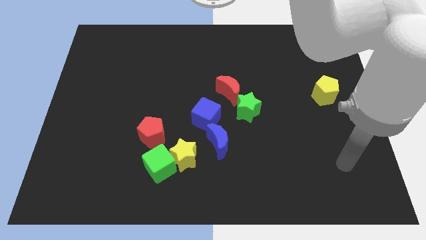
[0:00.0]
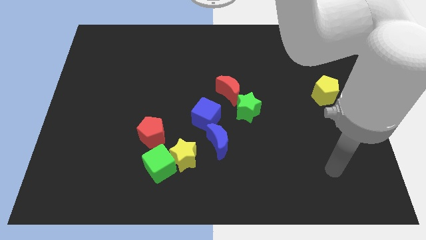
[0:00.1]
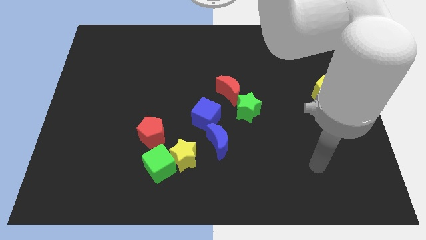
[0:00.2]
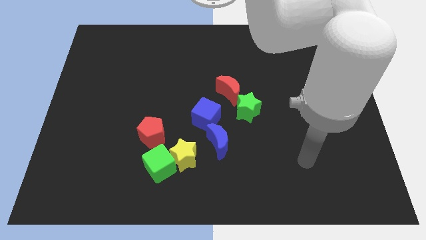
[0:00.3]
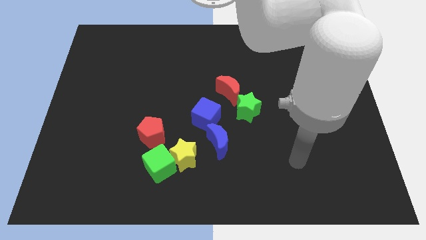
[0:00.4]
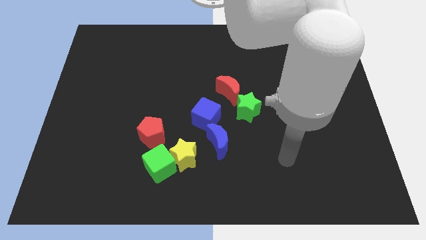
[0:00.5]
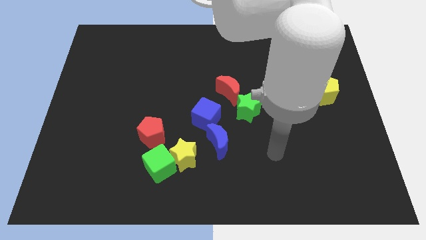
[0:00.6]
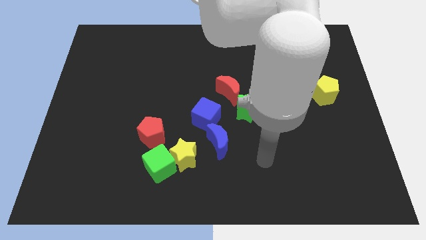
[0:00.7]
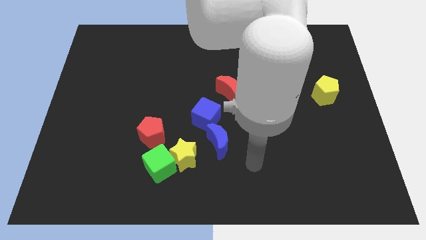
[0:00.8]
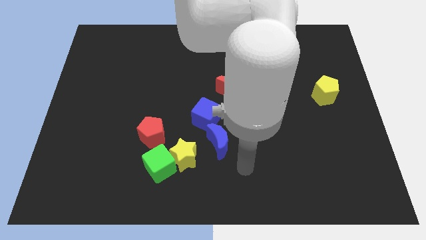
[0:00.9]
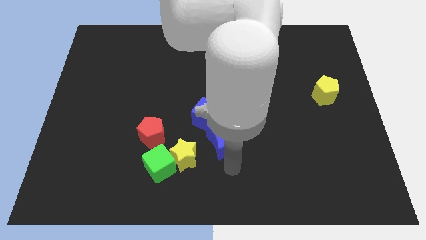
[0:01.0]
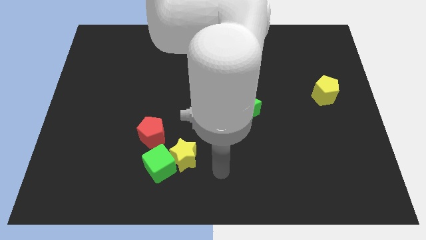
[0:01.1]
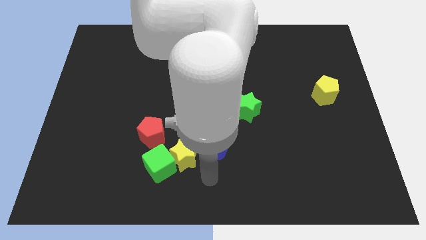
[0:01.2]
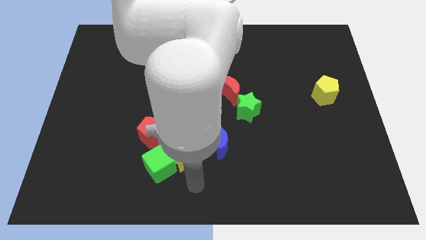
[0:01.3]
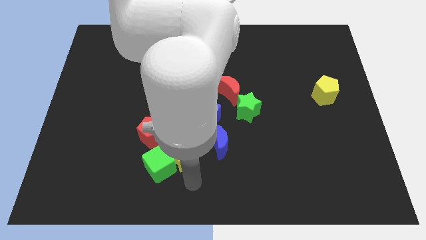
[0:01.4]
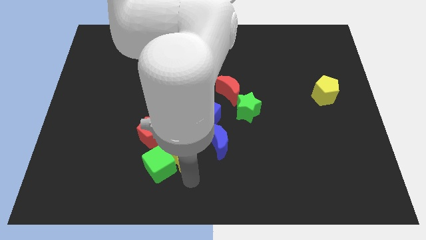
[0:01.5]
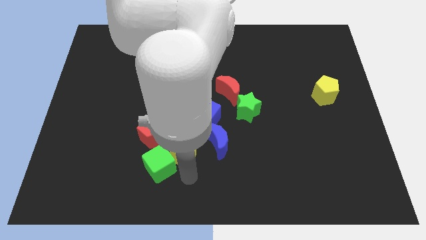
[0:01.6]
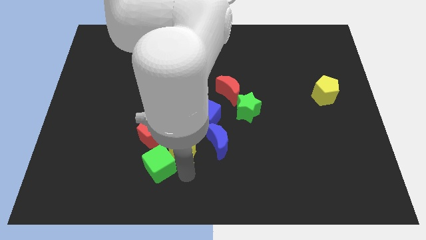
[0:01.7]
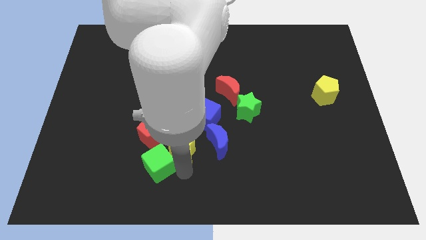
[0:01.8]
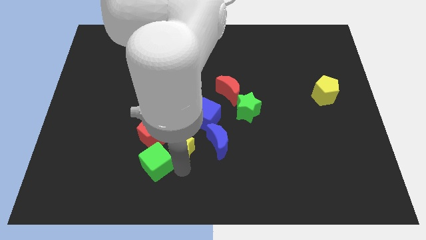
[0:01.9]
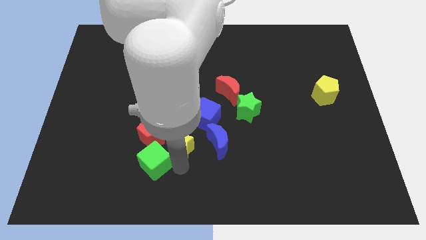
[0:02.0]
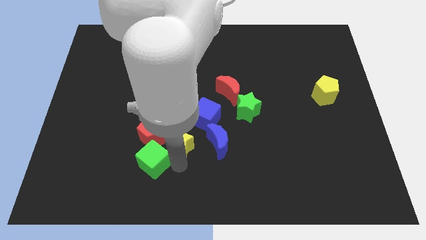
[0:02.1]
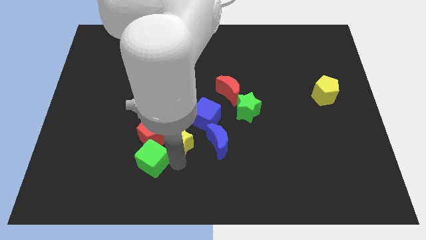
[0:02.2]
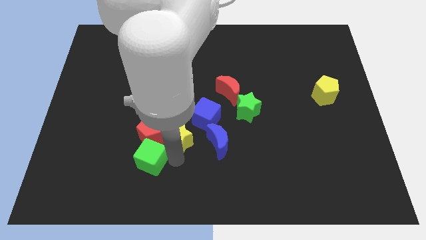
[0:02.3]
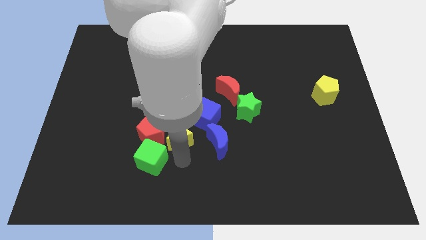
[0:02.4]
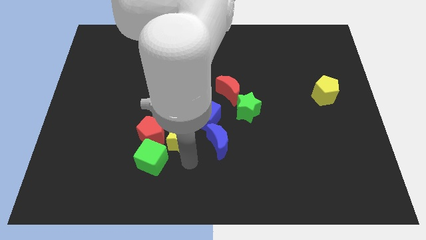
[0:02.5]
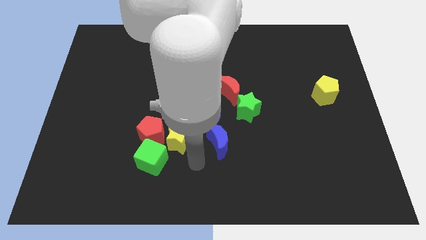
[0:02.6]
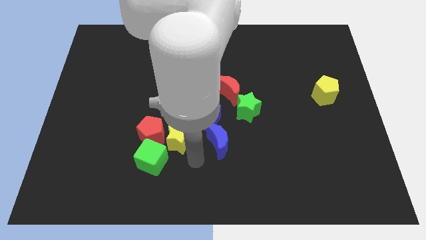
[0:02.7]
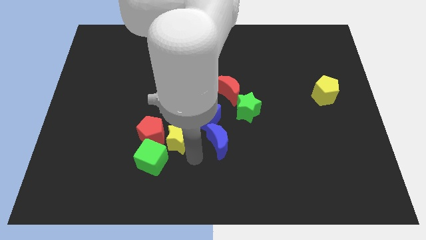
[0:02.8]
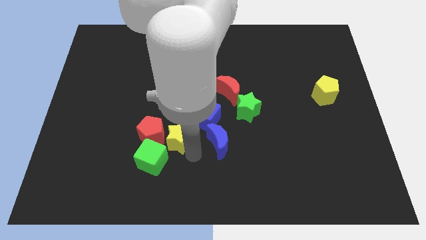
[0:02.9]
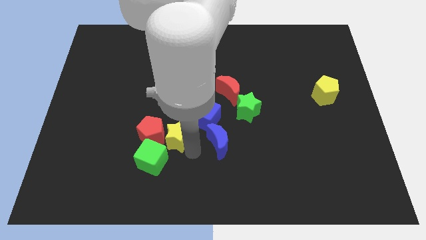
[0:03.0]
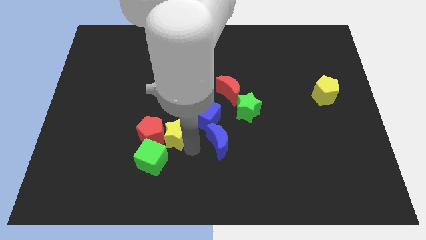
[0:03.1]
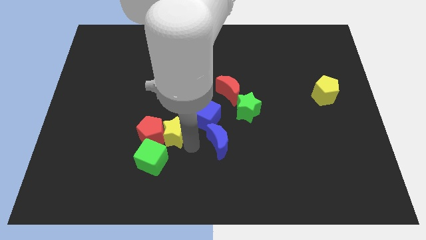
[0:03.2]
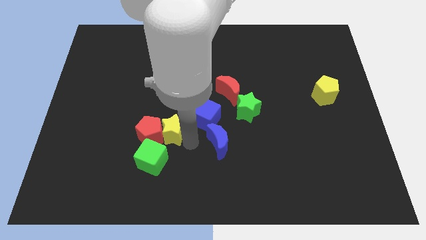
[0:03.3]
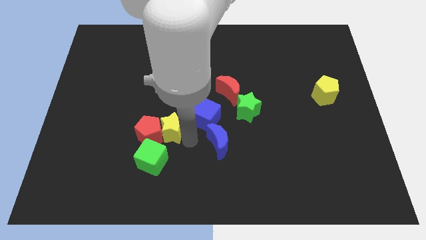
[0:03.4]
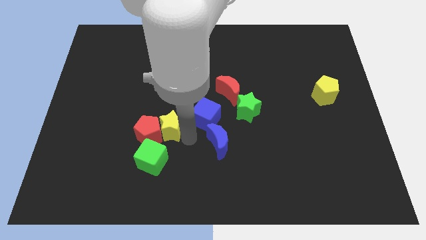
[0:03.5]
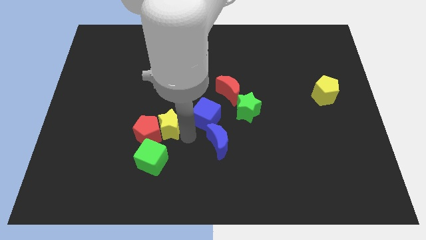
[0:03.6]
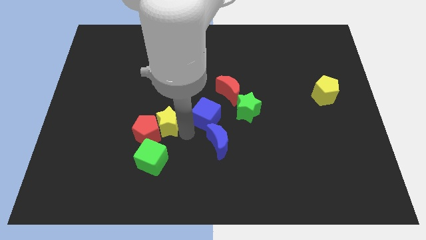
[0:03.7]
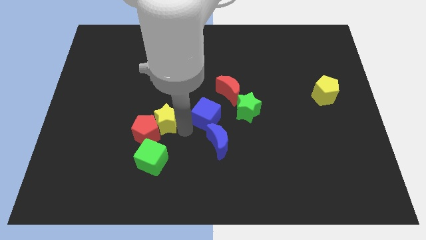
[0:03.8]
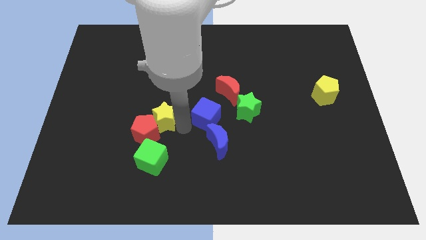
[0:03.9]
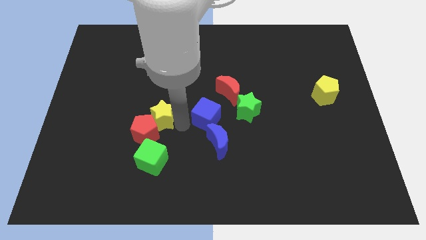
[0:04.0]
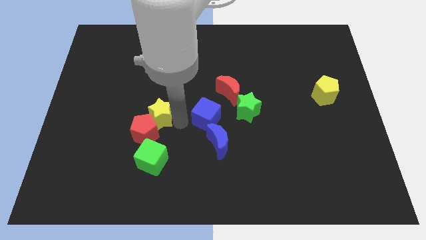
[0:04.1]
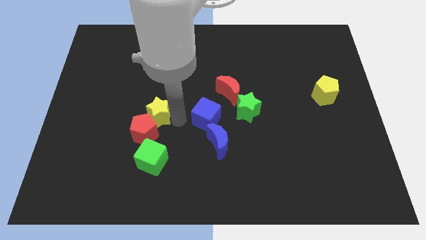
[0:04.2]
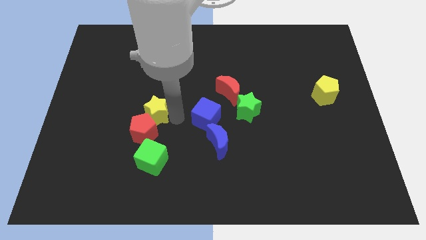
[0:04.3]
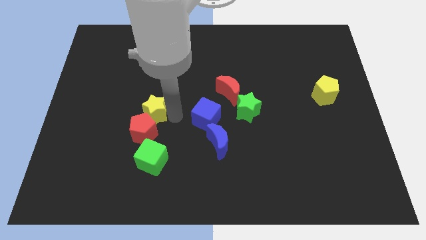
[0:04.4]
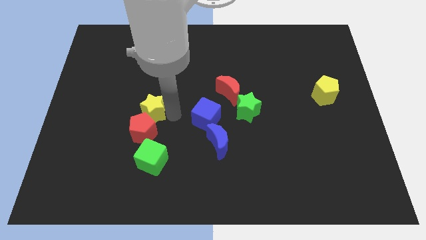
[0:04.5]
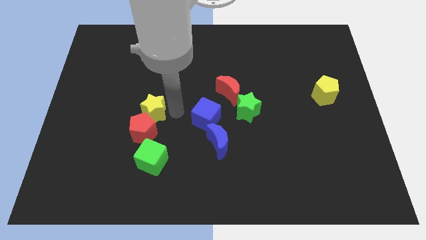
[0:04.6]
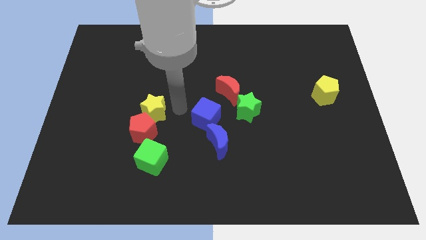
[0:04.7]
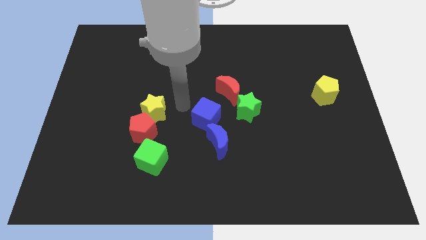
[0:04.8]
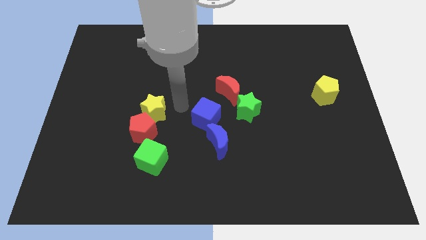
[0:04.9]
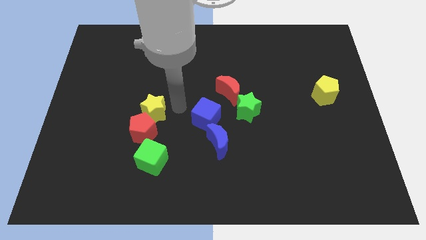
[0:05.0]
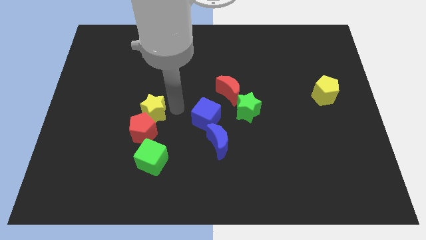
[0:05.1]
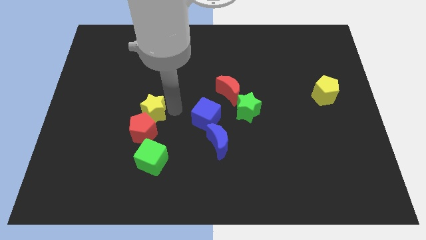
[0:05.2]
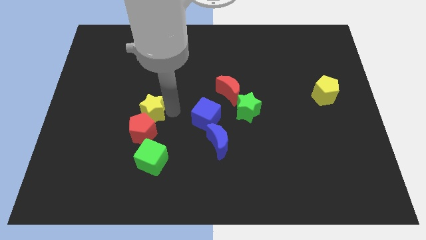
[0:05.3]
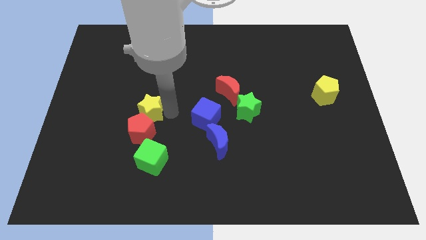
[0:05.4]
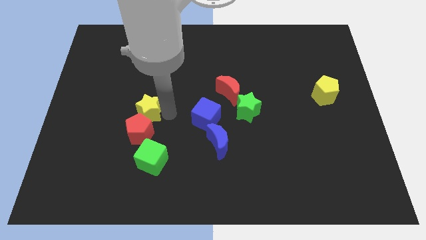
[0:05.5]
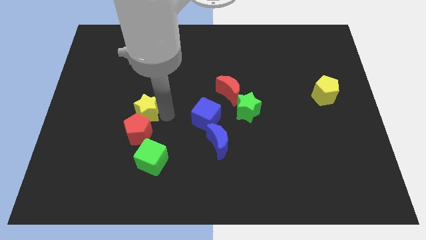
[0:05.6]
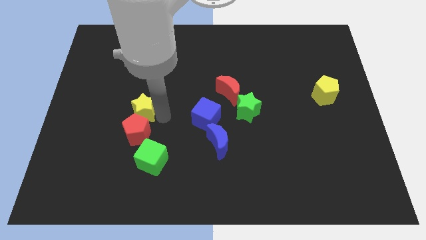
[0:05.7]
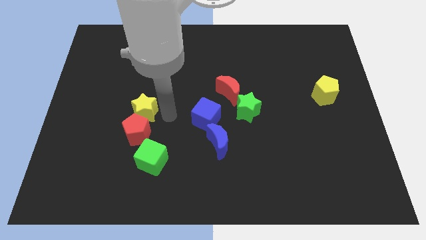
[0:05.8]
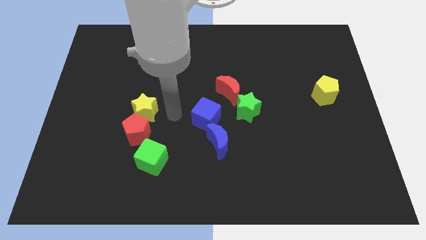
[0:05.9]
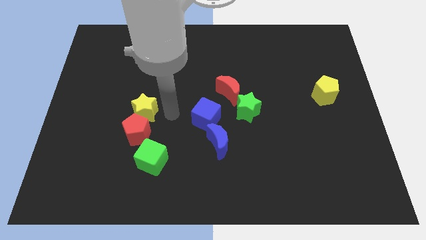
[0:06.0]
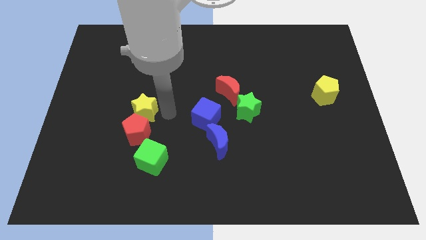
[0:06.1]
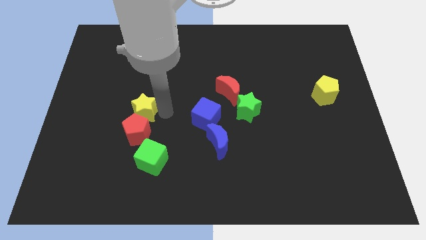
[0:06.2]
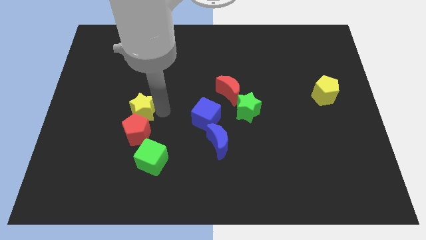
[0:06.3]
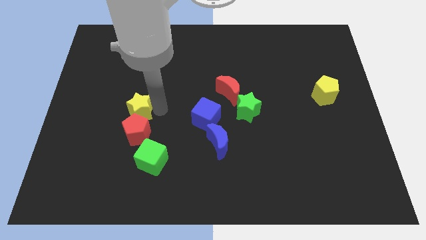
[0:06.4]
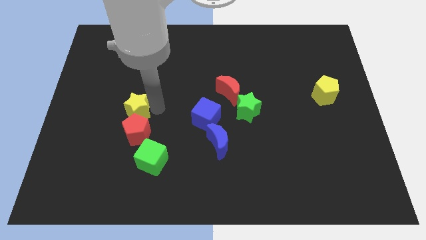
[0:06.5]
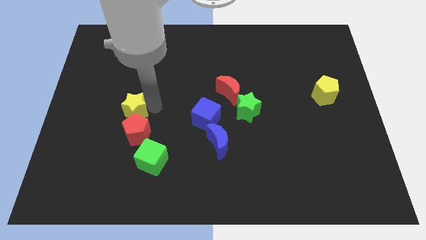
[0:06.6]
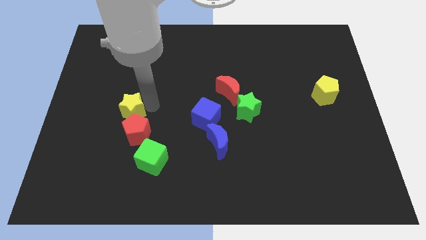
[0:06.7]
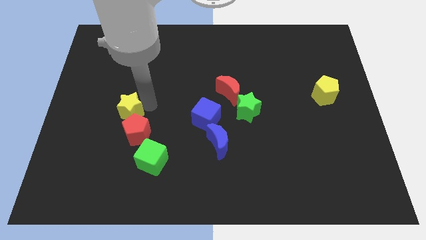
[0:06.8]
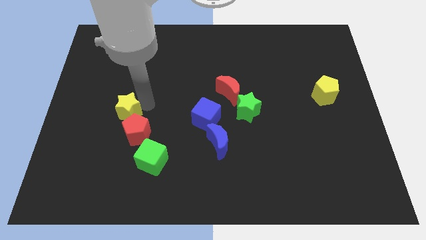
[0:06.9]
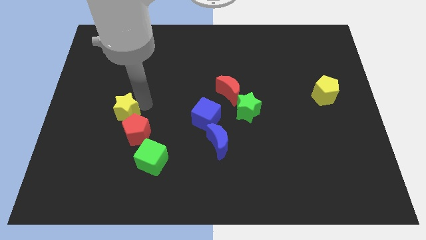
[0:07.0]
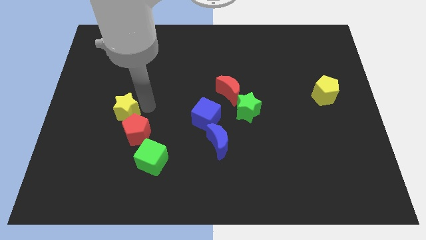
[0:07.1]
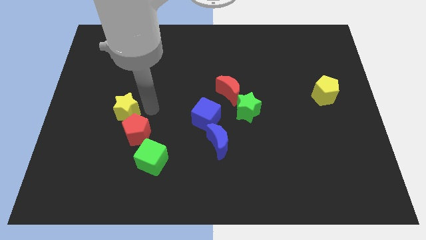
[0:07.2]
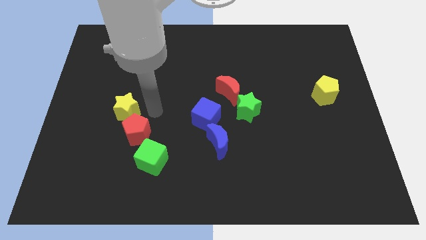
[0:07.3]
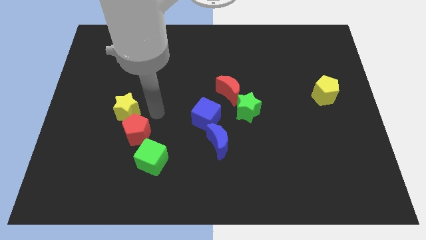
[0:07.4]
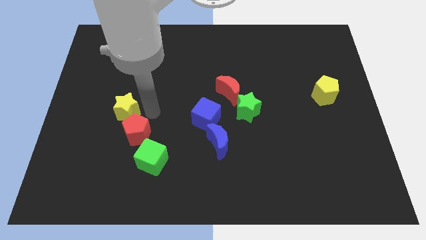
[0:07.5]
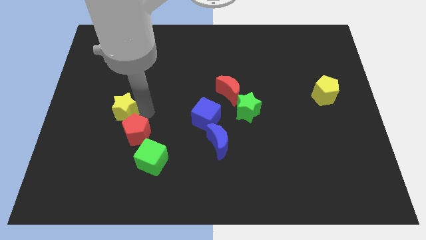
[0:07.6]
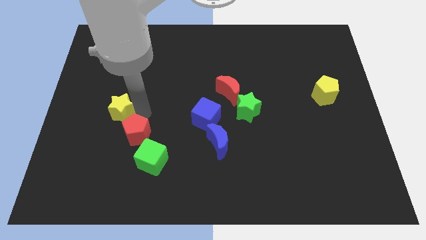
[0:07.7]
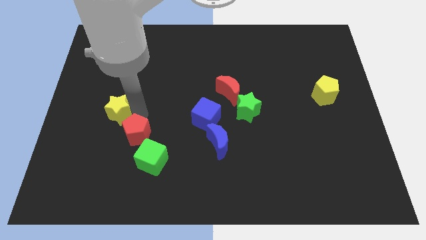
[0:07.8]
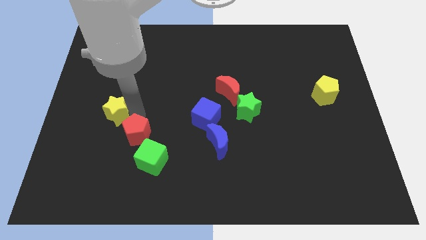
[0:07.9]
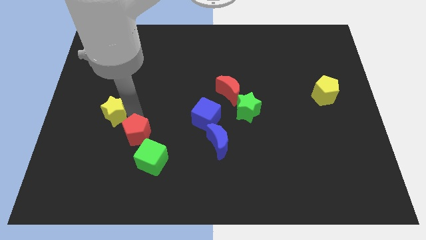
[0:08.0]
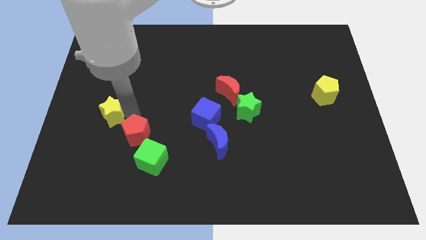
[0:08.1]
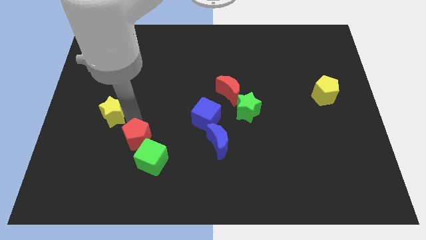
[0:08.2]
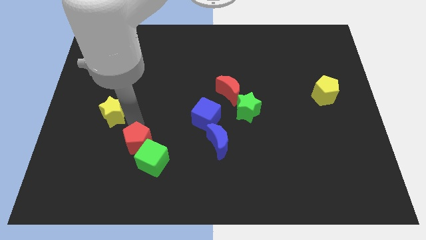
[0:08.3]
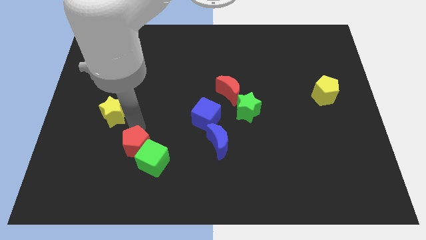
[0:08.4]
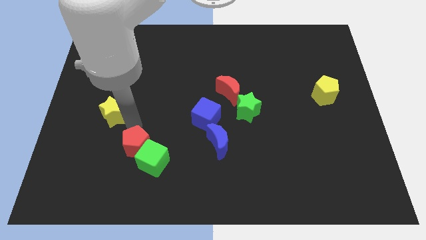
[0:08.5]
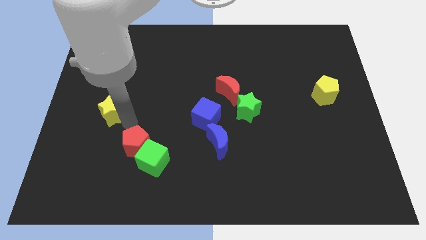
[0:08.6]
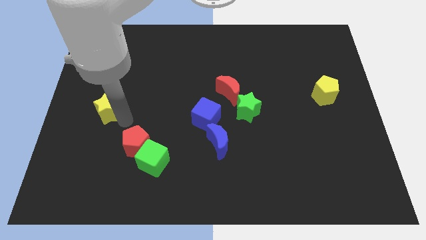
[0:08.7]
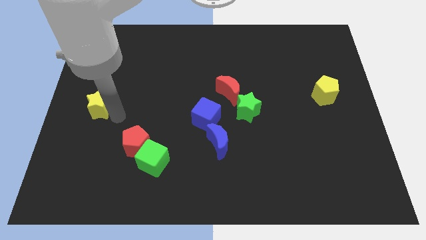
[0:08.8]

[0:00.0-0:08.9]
slide the yellow star to the center left
